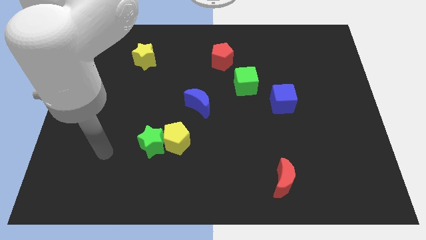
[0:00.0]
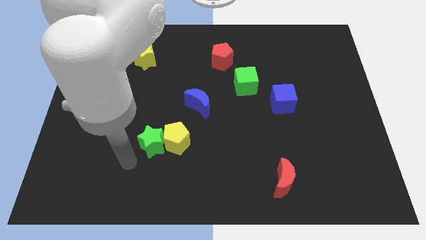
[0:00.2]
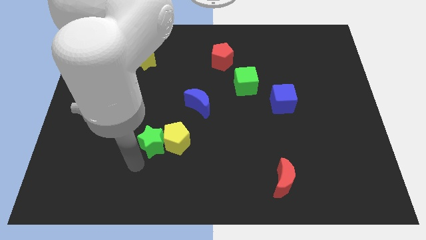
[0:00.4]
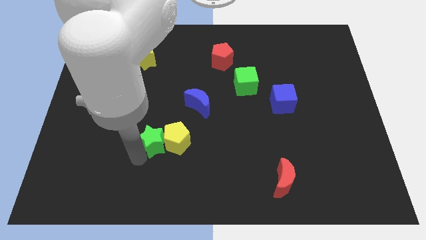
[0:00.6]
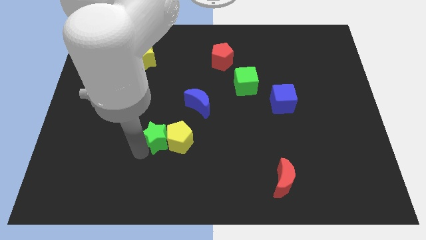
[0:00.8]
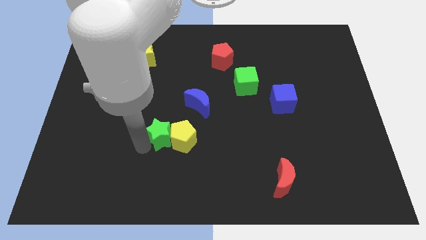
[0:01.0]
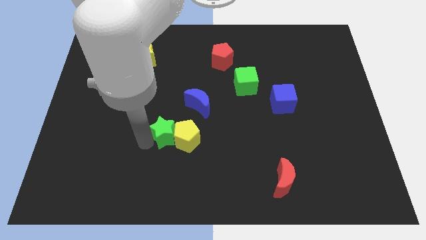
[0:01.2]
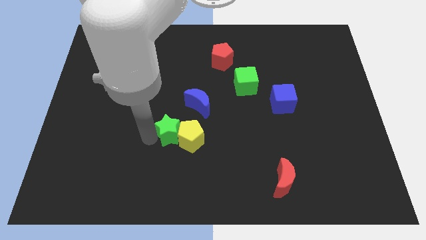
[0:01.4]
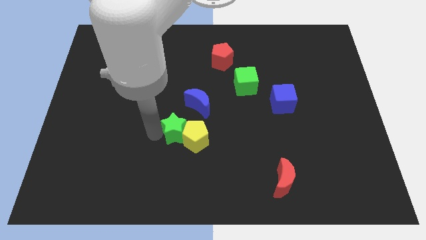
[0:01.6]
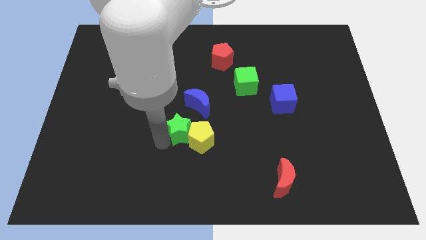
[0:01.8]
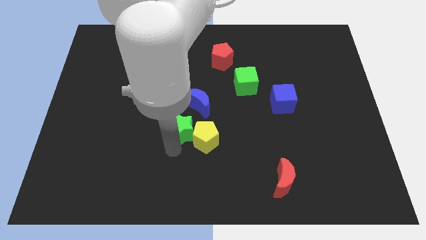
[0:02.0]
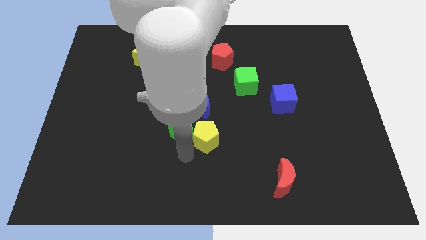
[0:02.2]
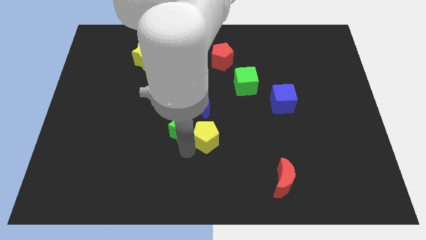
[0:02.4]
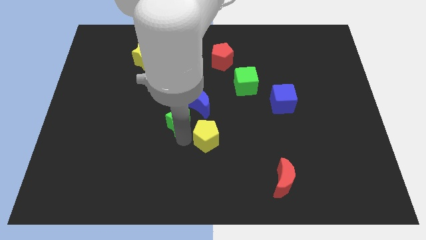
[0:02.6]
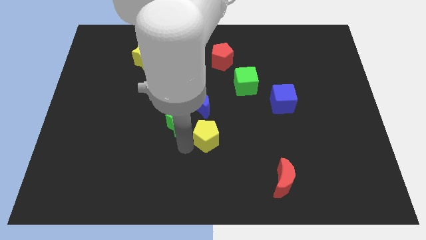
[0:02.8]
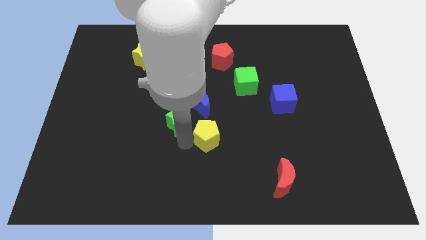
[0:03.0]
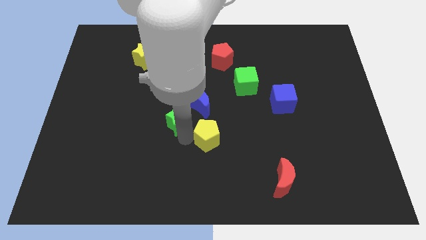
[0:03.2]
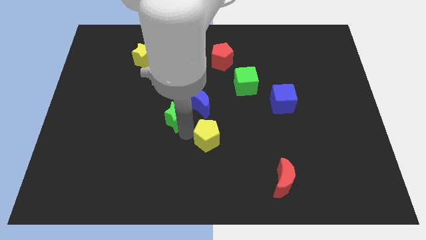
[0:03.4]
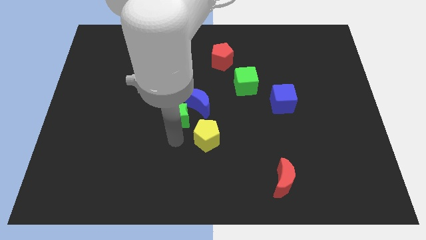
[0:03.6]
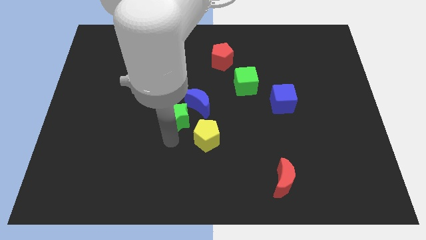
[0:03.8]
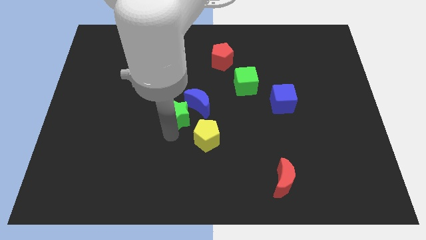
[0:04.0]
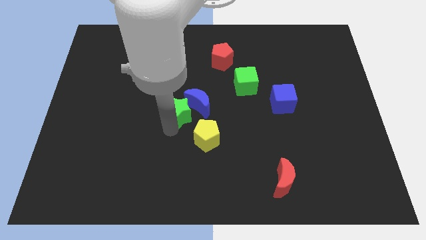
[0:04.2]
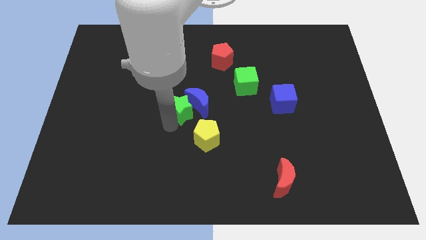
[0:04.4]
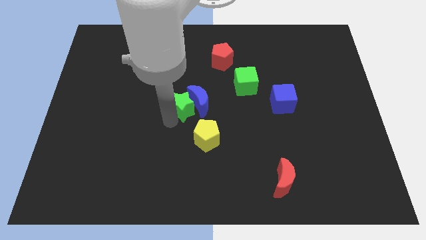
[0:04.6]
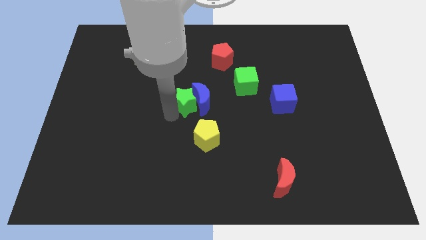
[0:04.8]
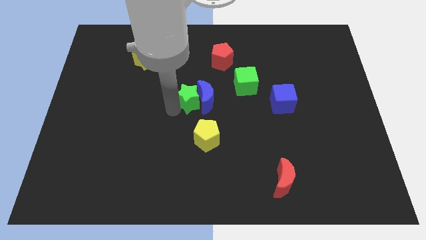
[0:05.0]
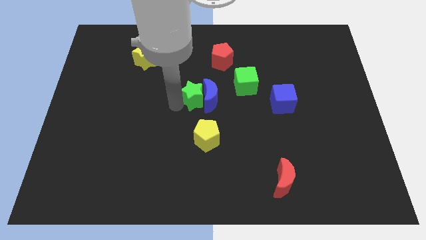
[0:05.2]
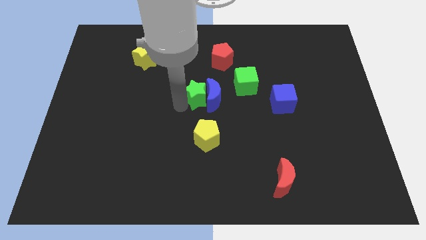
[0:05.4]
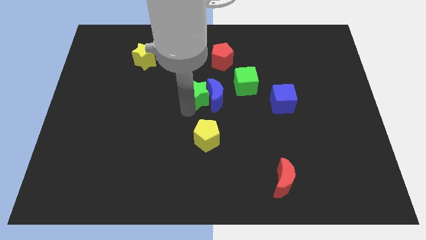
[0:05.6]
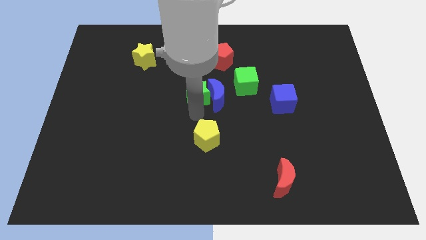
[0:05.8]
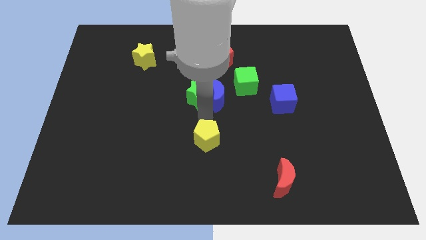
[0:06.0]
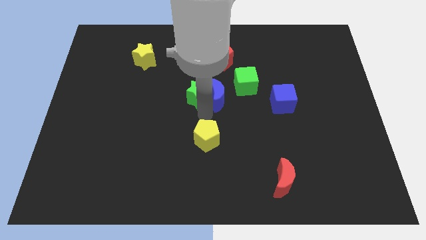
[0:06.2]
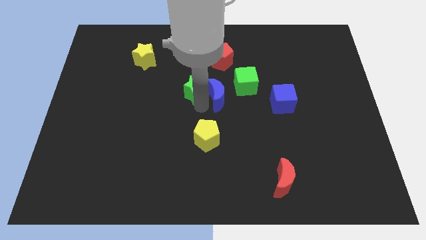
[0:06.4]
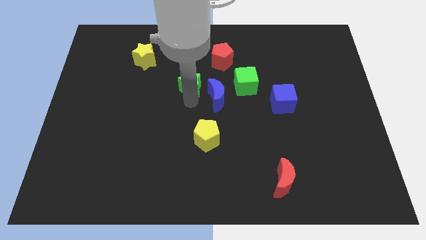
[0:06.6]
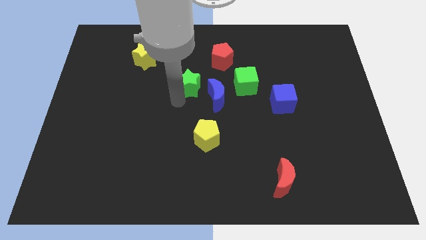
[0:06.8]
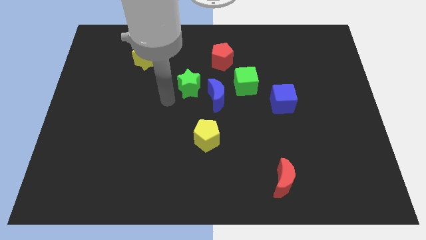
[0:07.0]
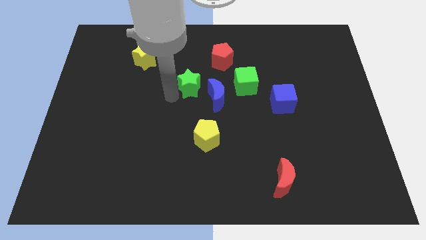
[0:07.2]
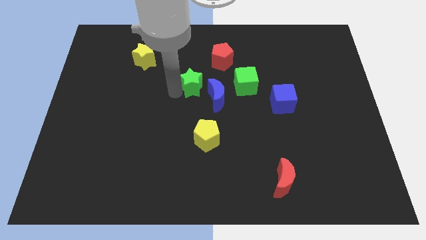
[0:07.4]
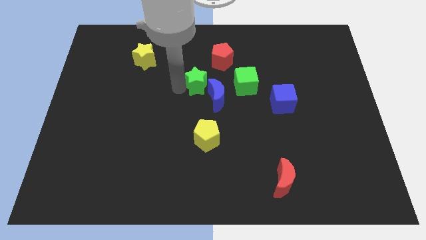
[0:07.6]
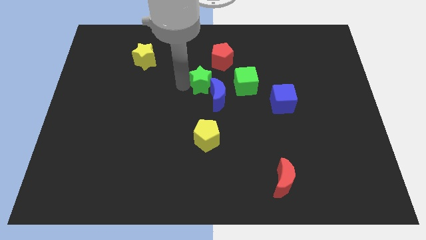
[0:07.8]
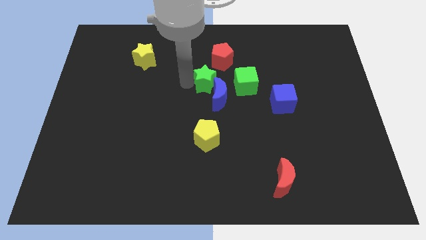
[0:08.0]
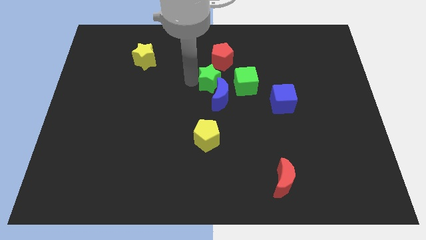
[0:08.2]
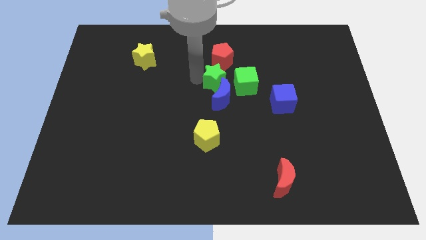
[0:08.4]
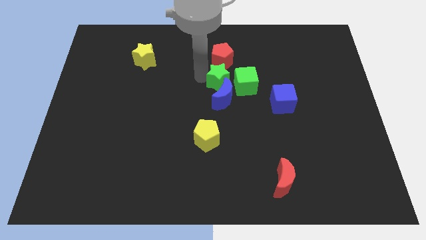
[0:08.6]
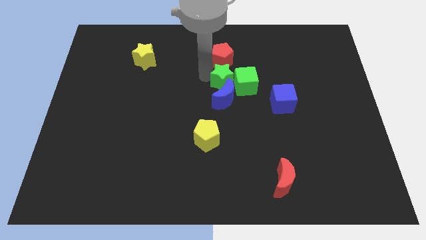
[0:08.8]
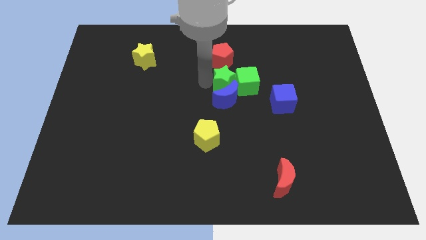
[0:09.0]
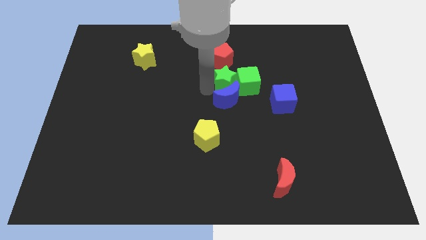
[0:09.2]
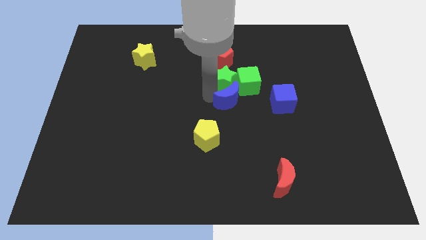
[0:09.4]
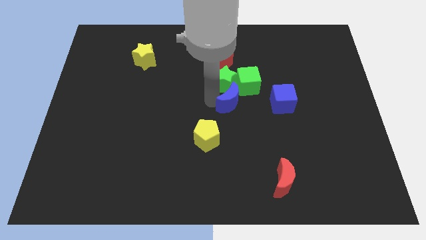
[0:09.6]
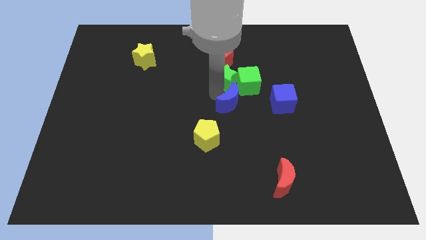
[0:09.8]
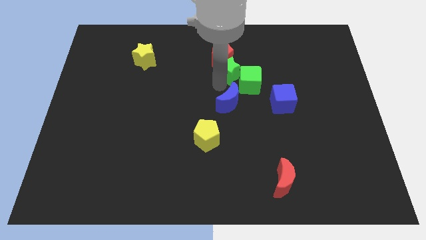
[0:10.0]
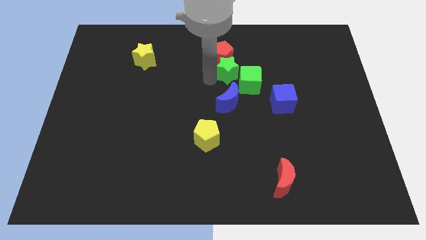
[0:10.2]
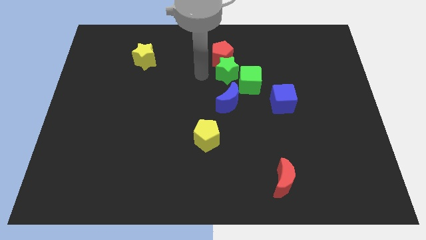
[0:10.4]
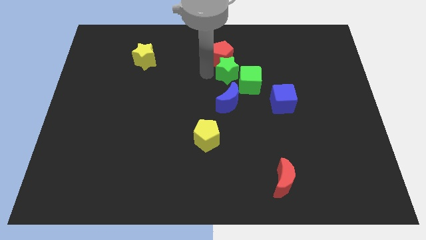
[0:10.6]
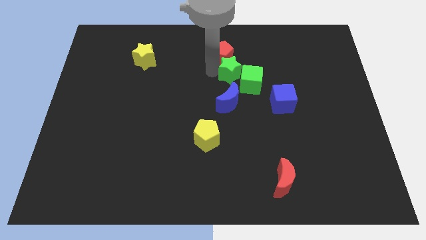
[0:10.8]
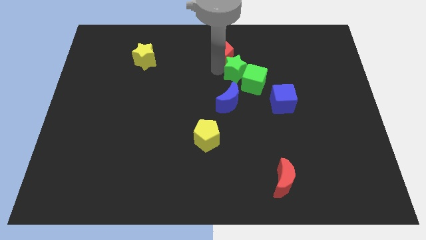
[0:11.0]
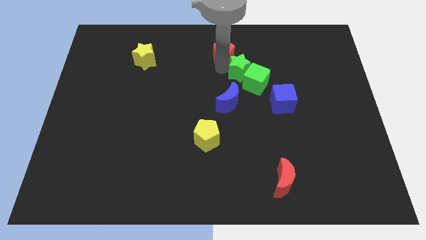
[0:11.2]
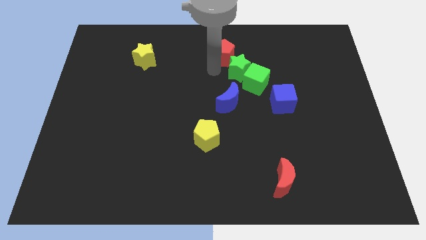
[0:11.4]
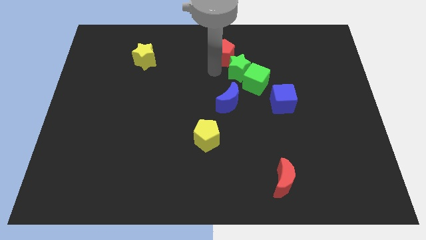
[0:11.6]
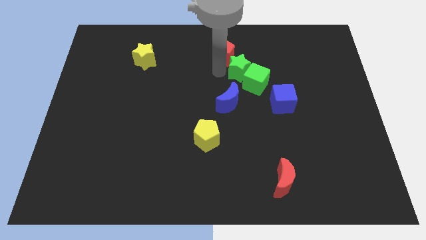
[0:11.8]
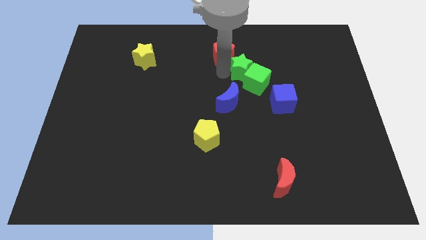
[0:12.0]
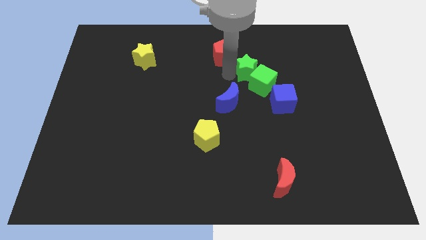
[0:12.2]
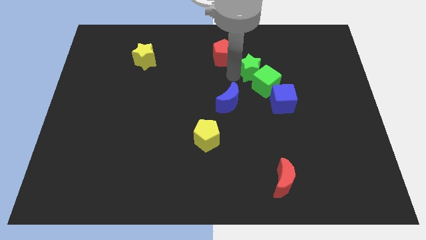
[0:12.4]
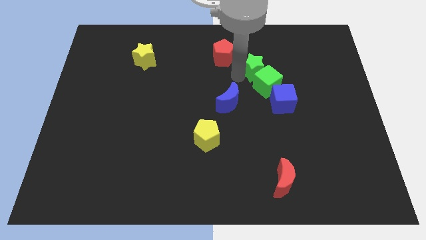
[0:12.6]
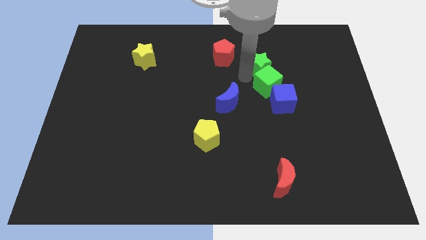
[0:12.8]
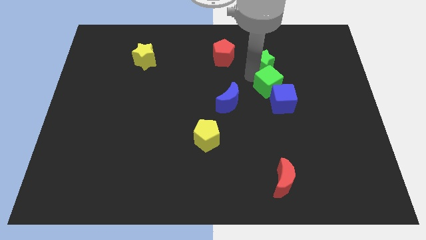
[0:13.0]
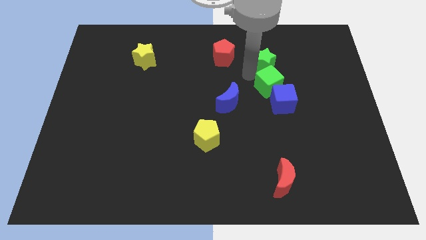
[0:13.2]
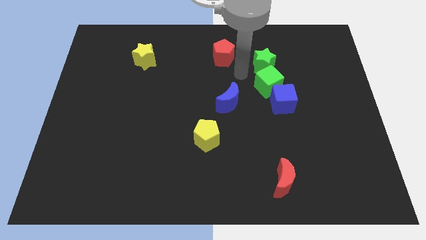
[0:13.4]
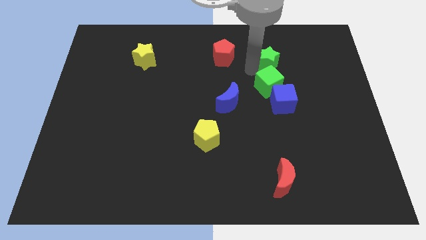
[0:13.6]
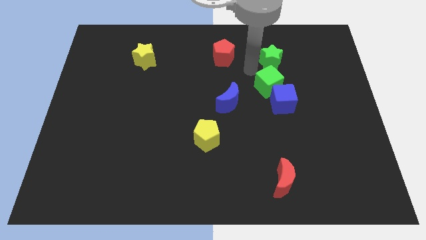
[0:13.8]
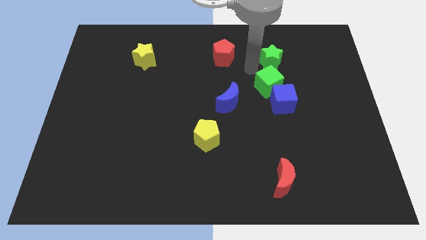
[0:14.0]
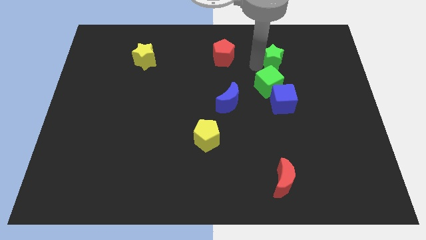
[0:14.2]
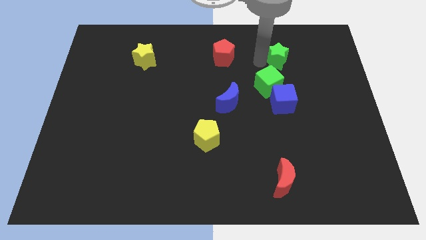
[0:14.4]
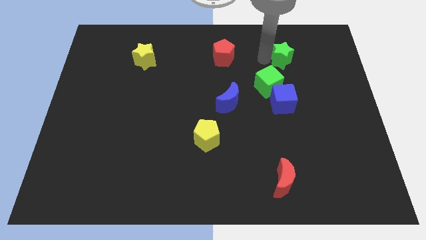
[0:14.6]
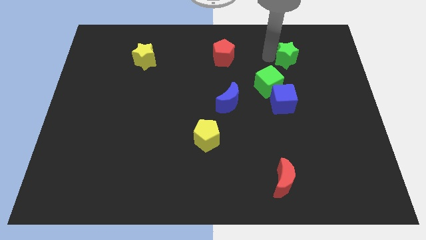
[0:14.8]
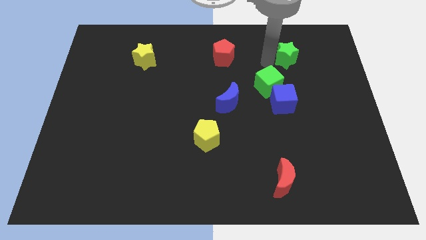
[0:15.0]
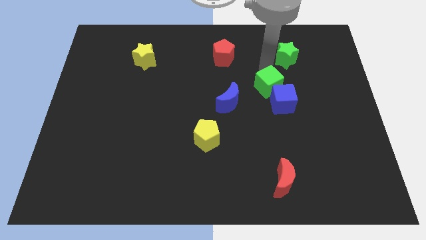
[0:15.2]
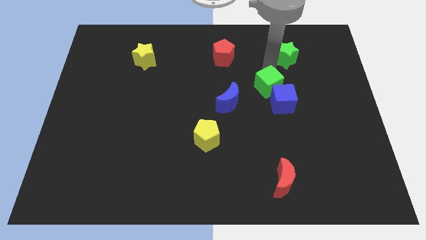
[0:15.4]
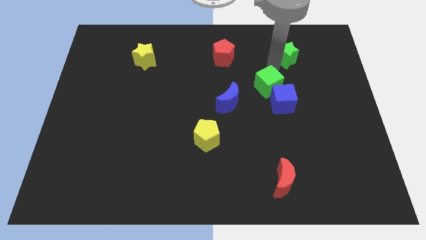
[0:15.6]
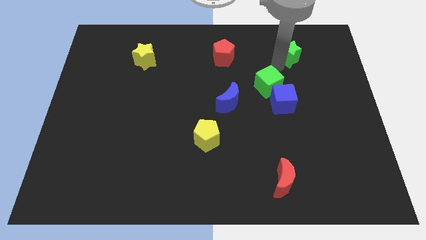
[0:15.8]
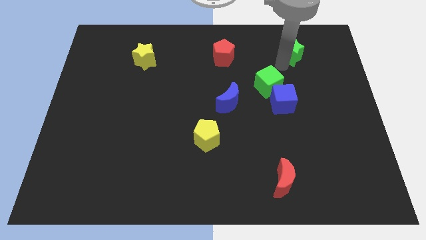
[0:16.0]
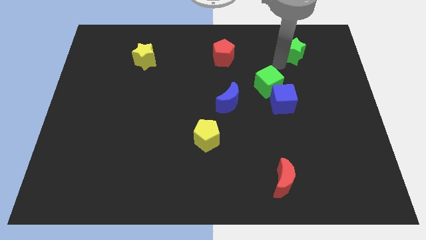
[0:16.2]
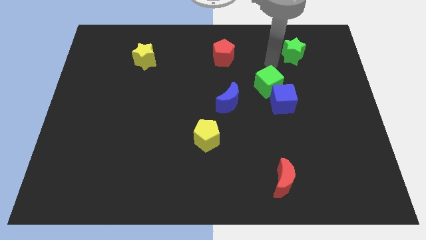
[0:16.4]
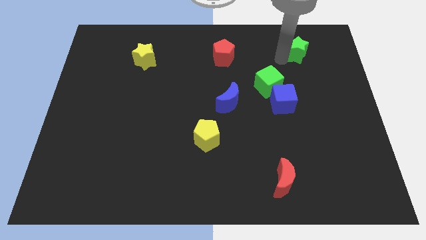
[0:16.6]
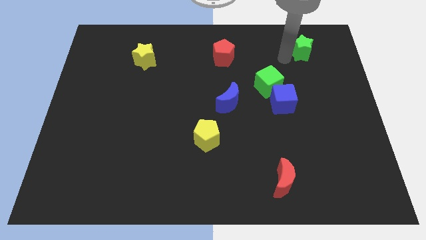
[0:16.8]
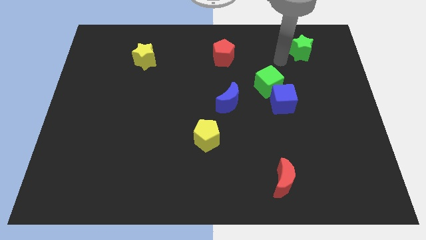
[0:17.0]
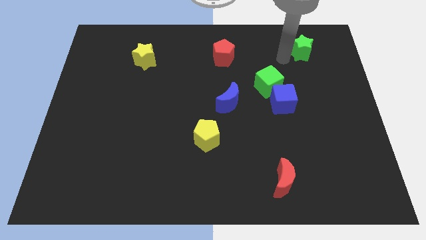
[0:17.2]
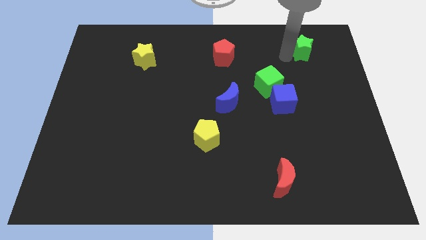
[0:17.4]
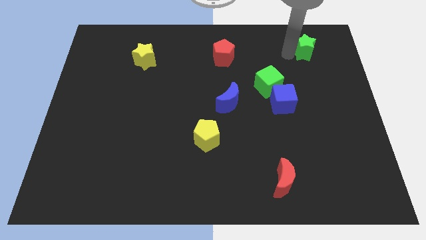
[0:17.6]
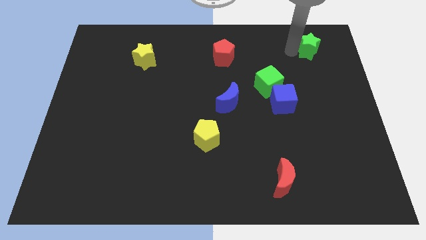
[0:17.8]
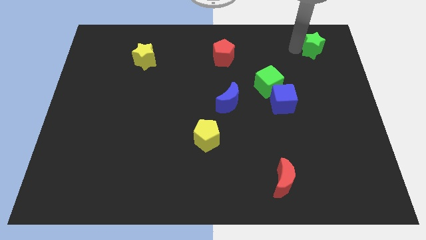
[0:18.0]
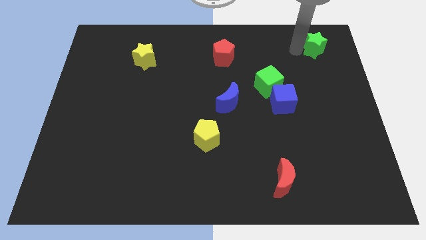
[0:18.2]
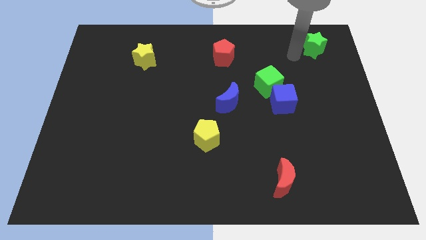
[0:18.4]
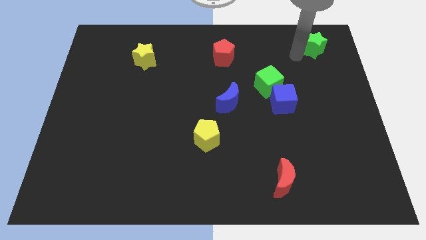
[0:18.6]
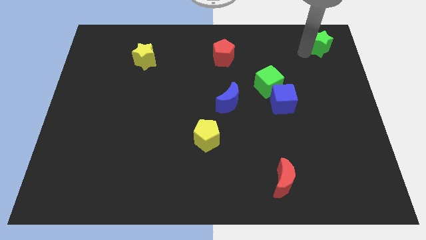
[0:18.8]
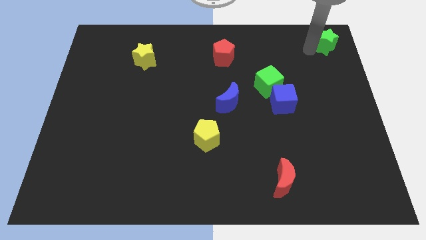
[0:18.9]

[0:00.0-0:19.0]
slide the green star to the top right corner
